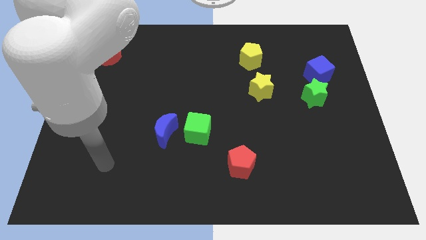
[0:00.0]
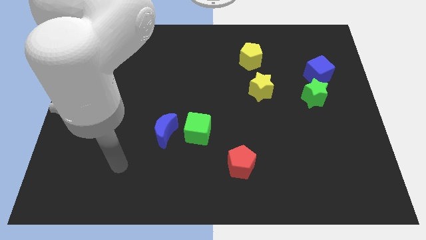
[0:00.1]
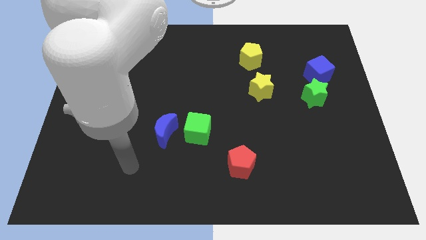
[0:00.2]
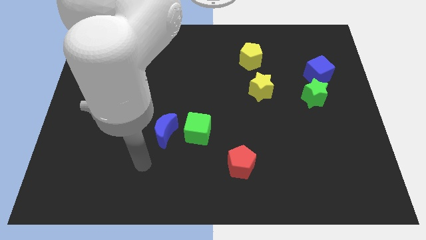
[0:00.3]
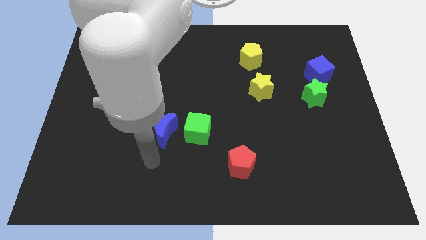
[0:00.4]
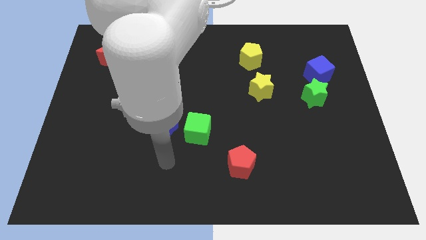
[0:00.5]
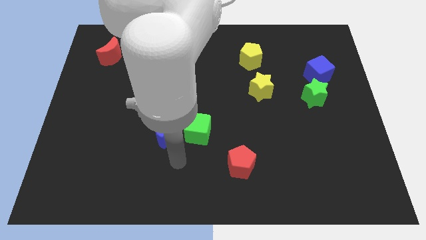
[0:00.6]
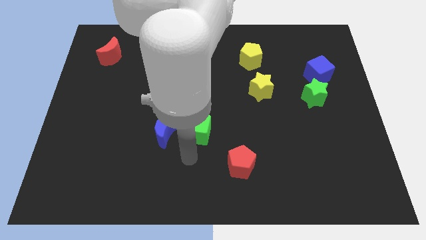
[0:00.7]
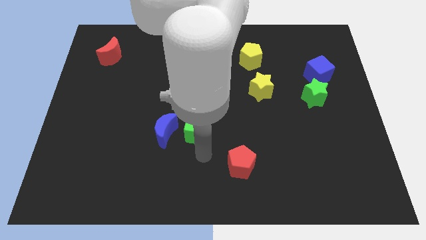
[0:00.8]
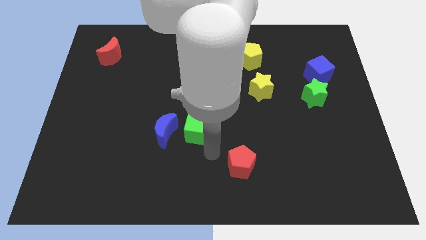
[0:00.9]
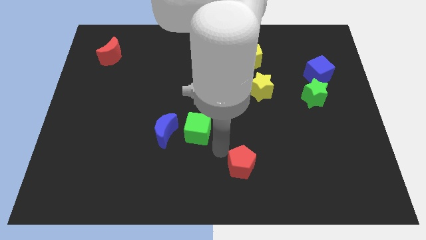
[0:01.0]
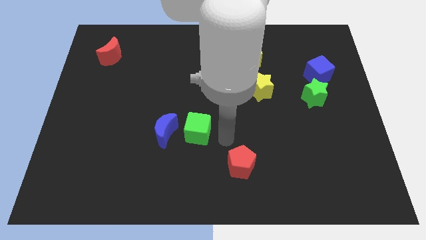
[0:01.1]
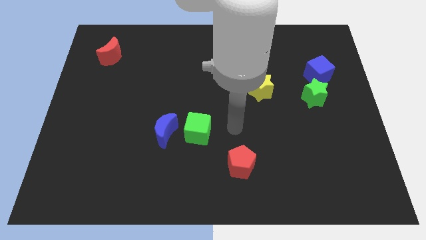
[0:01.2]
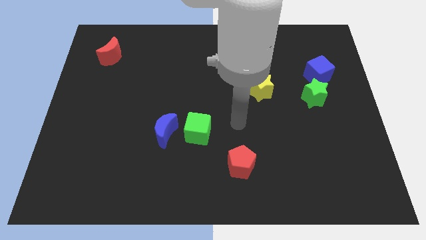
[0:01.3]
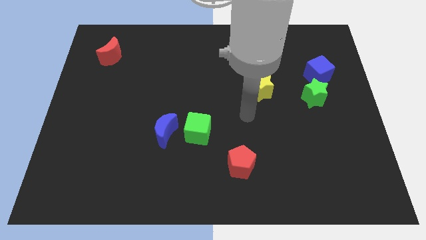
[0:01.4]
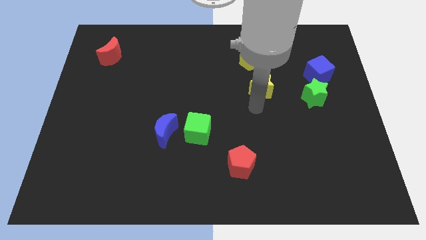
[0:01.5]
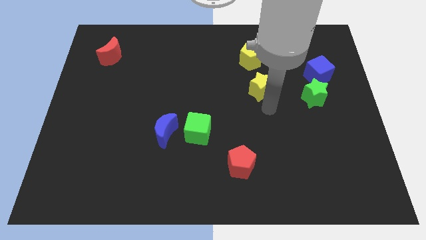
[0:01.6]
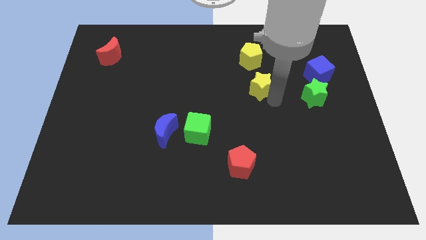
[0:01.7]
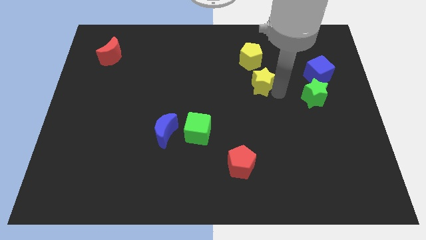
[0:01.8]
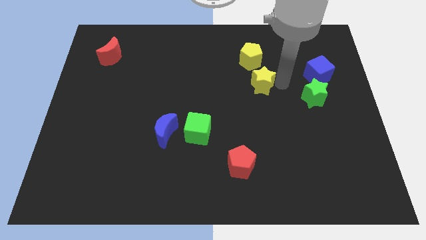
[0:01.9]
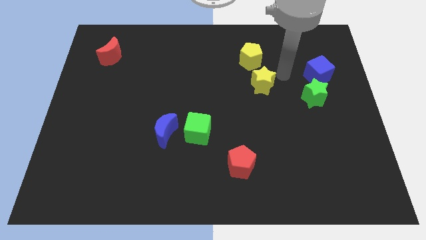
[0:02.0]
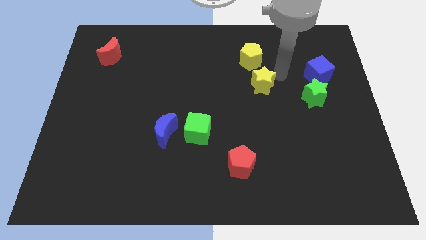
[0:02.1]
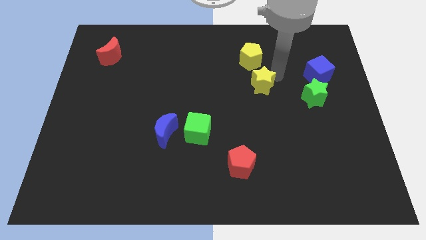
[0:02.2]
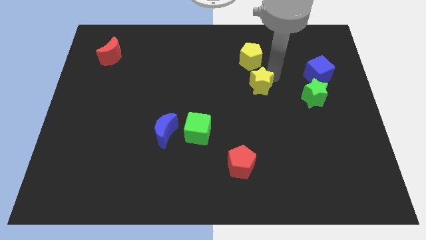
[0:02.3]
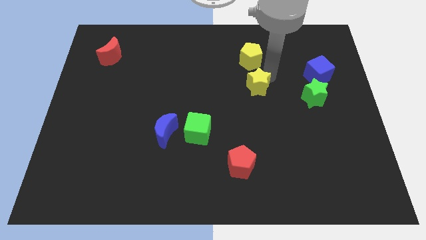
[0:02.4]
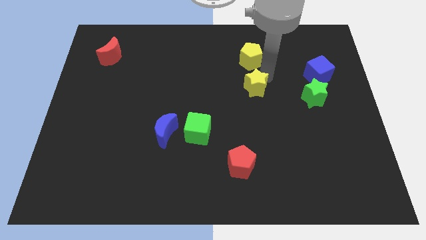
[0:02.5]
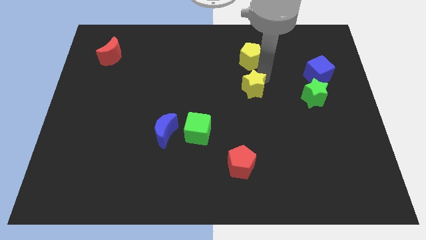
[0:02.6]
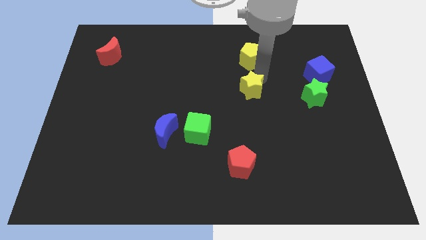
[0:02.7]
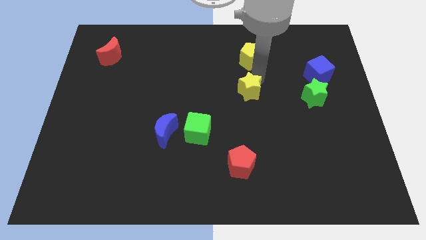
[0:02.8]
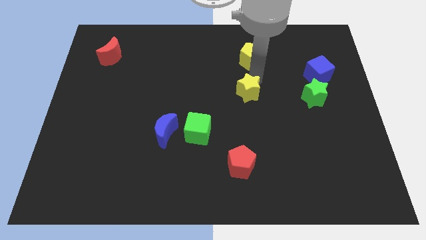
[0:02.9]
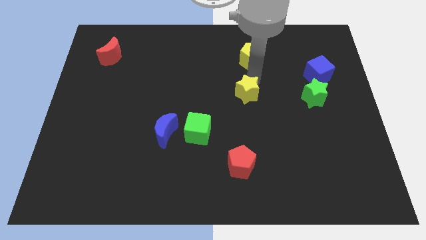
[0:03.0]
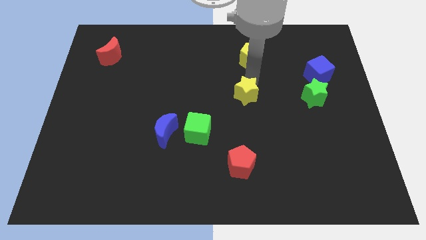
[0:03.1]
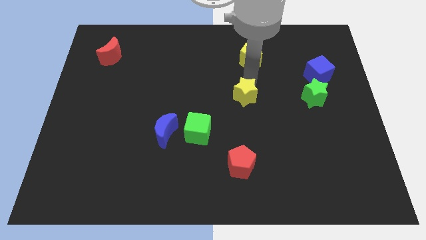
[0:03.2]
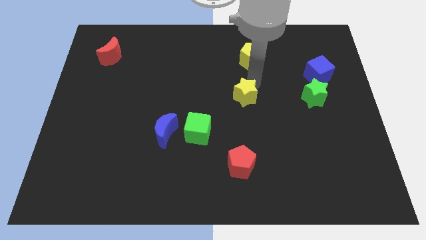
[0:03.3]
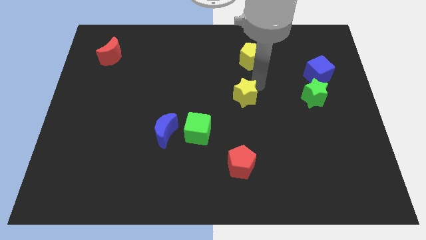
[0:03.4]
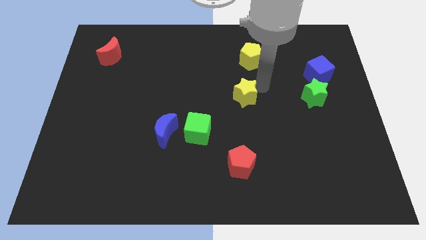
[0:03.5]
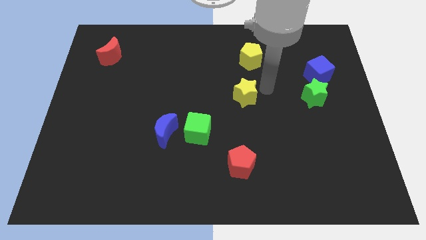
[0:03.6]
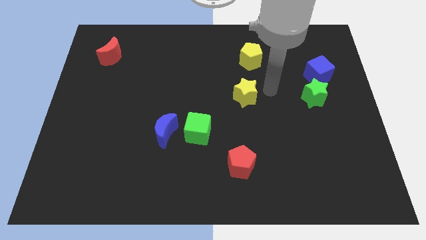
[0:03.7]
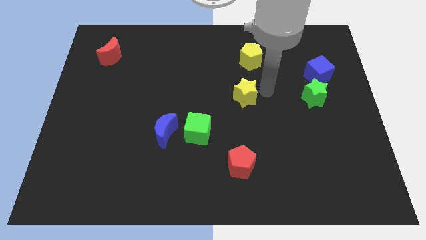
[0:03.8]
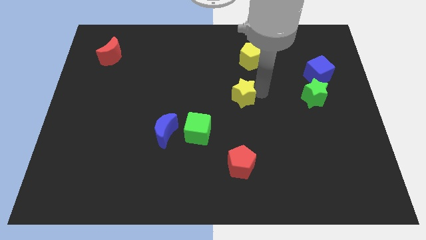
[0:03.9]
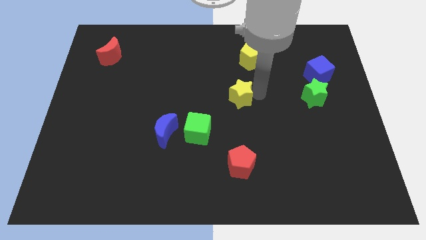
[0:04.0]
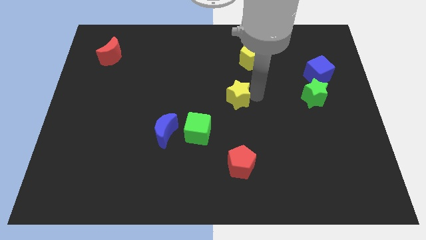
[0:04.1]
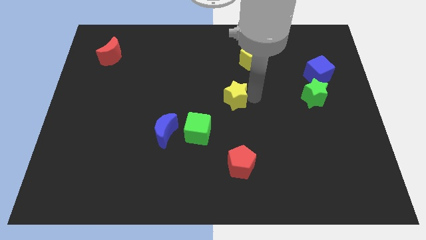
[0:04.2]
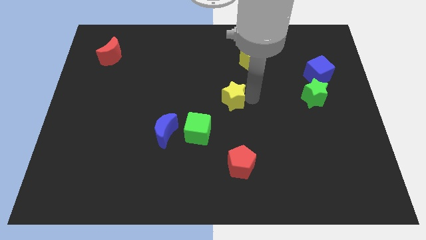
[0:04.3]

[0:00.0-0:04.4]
slightly push the yellow star left

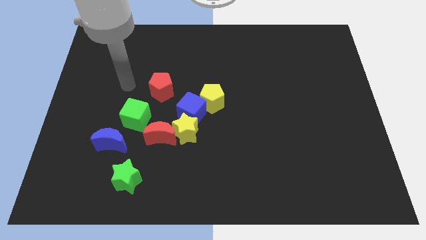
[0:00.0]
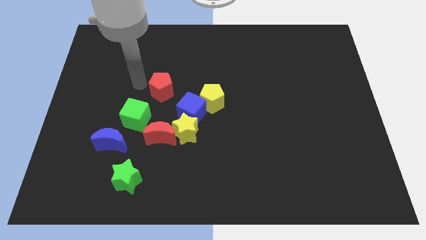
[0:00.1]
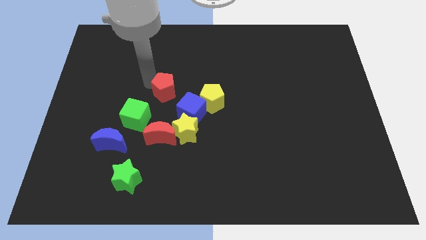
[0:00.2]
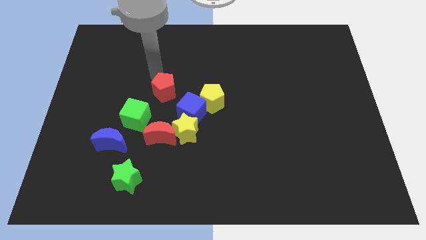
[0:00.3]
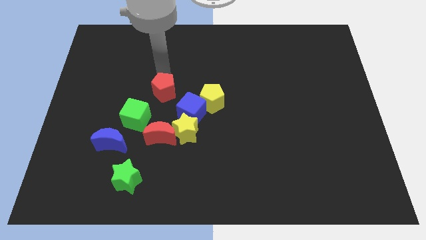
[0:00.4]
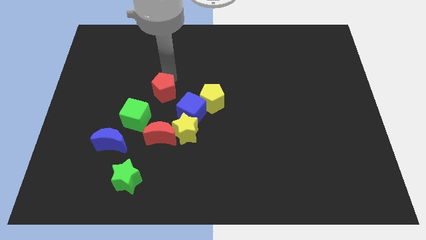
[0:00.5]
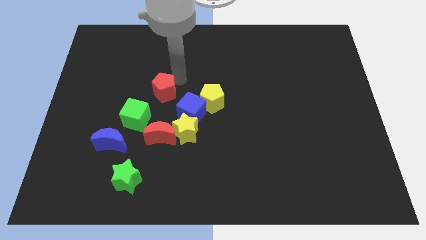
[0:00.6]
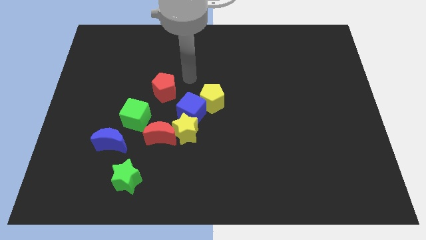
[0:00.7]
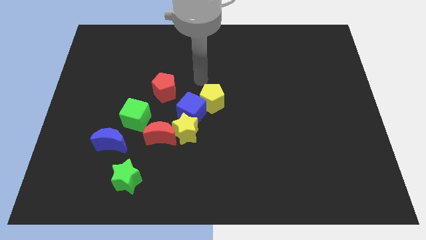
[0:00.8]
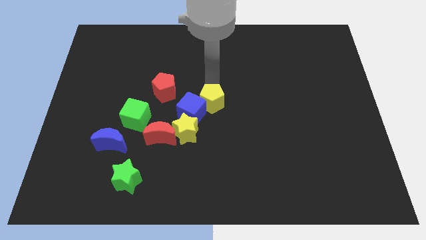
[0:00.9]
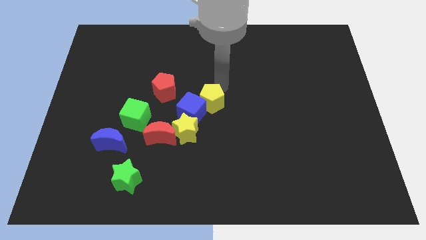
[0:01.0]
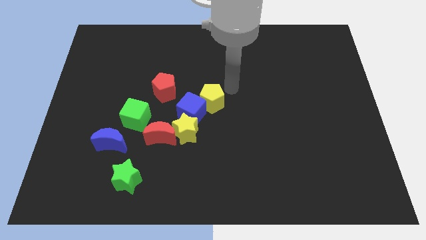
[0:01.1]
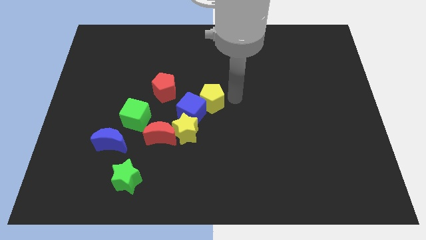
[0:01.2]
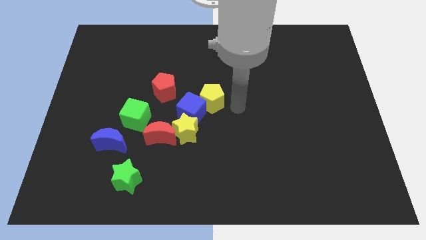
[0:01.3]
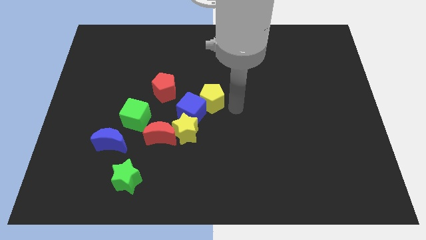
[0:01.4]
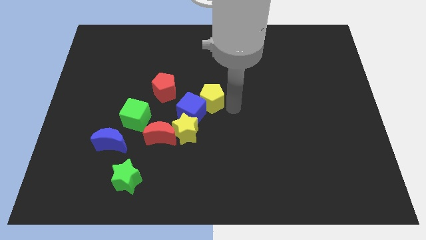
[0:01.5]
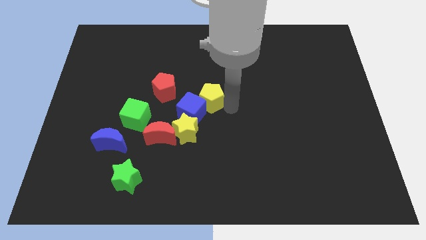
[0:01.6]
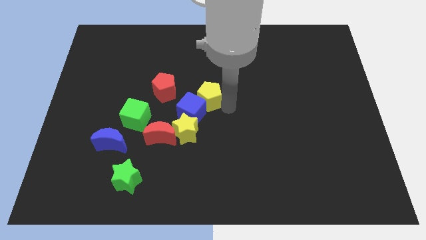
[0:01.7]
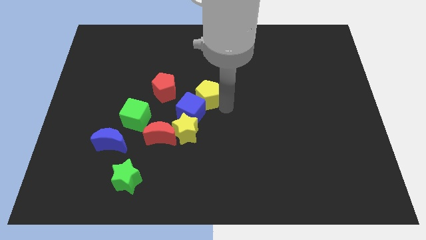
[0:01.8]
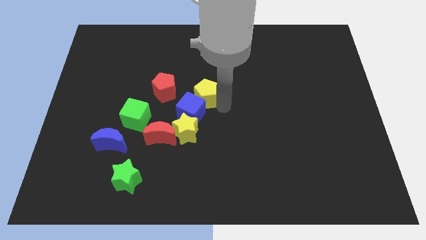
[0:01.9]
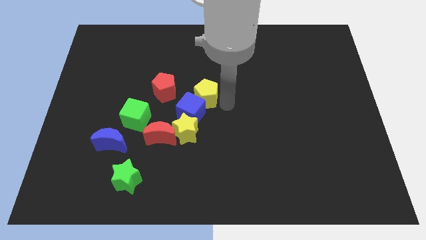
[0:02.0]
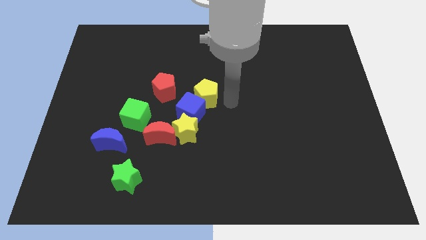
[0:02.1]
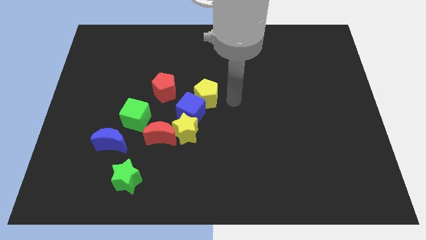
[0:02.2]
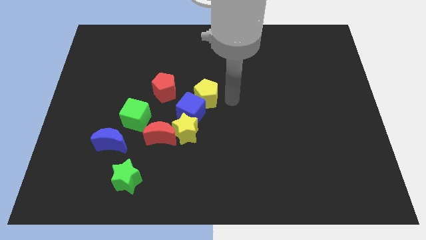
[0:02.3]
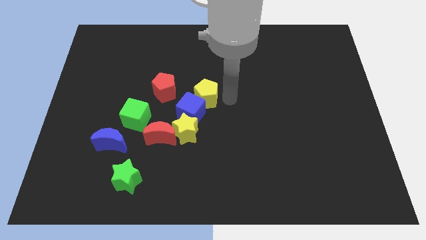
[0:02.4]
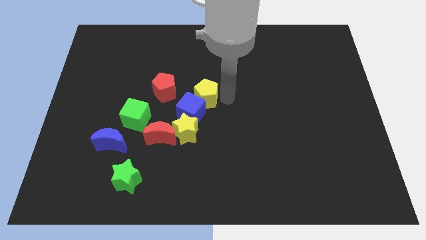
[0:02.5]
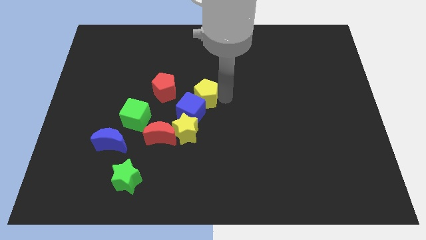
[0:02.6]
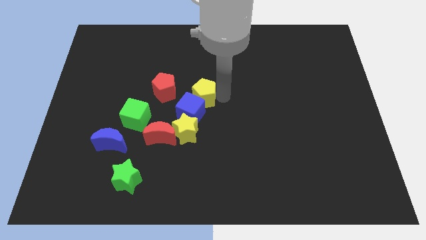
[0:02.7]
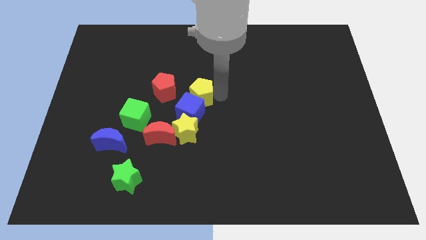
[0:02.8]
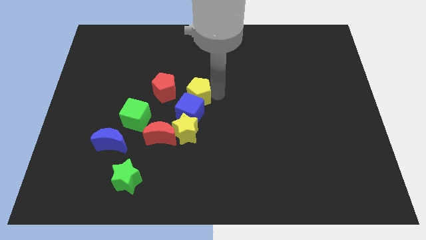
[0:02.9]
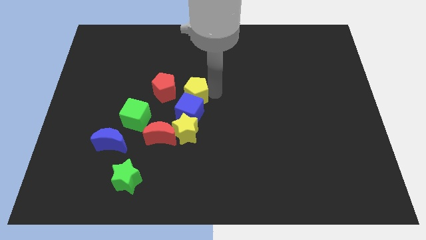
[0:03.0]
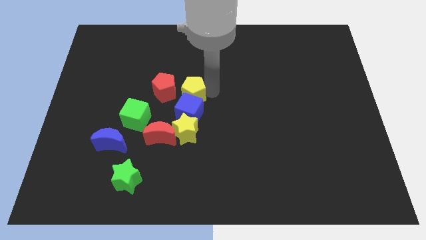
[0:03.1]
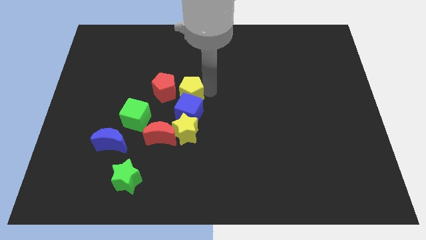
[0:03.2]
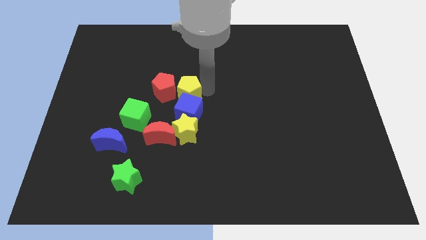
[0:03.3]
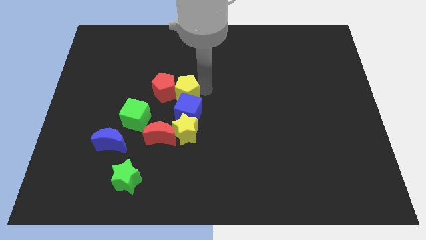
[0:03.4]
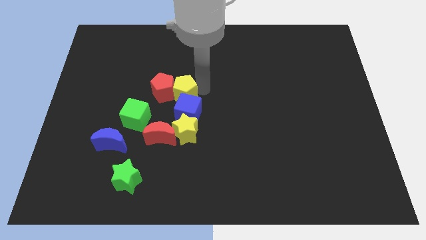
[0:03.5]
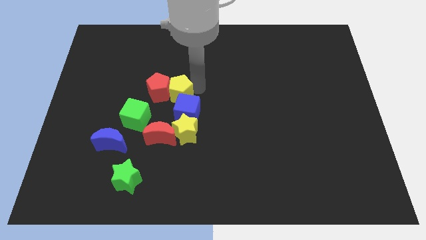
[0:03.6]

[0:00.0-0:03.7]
push the yellow pentagon to the left a little bit

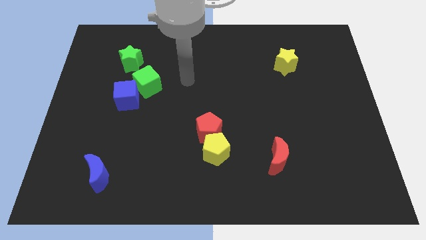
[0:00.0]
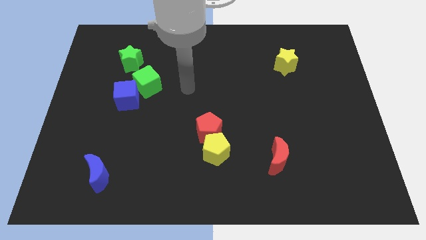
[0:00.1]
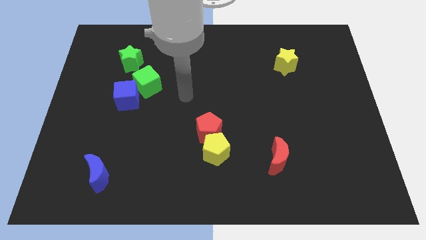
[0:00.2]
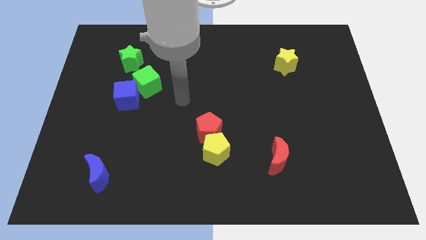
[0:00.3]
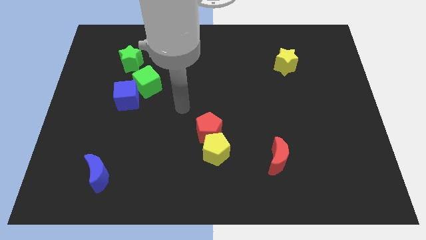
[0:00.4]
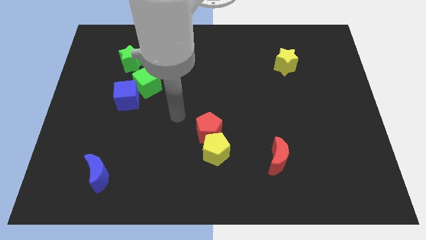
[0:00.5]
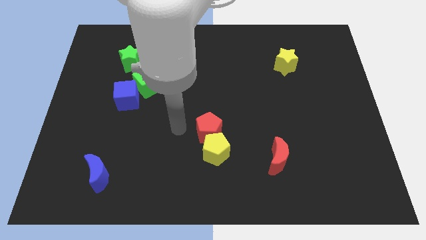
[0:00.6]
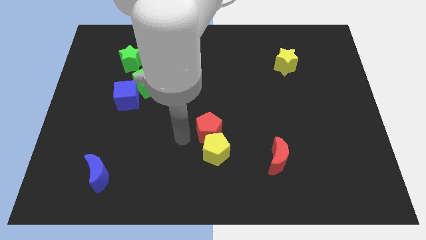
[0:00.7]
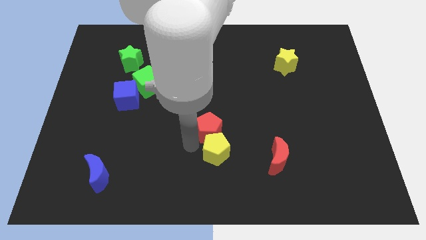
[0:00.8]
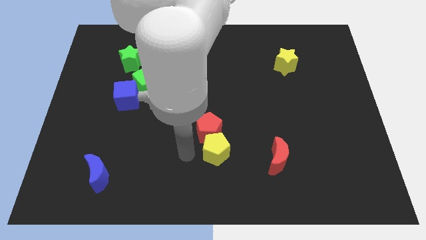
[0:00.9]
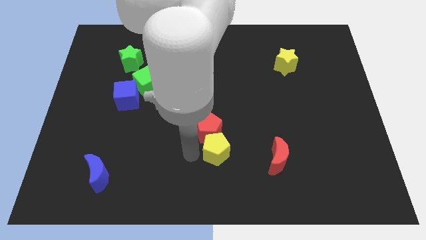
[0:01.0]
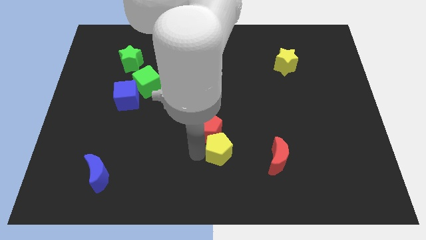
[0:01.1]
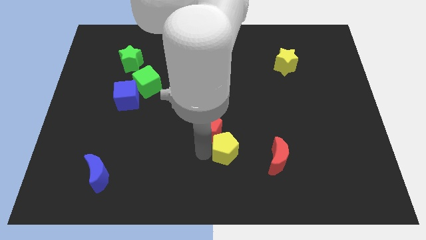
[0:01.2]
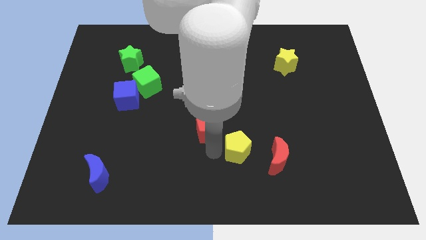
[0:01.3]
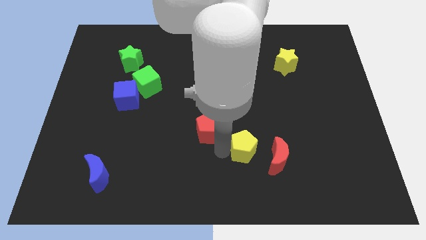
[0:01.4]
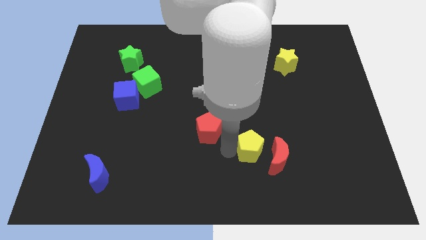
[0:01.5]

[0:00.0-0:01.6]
slide the yellow pentagon to the right a bit
